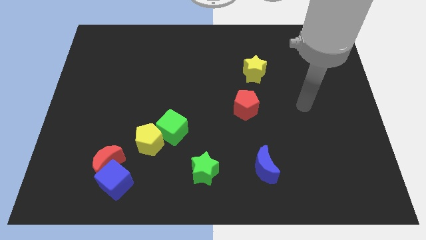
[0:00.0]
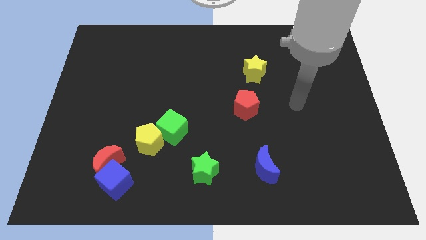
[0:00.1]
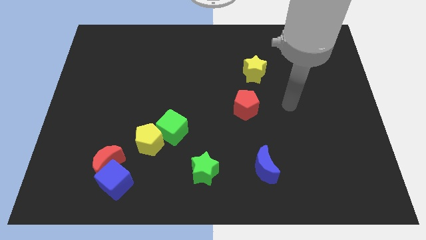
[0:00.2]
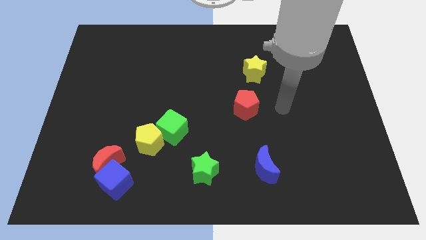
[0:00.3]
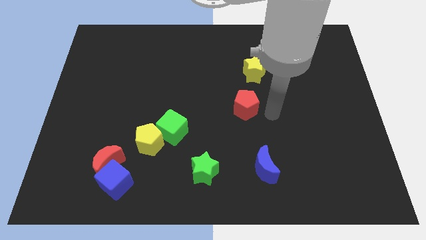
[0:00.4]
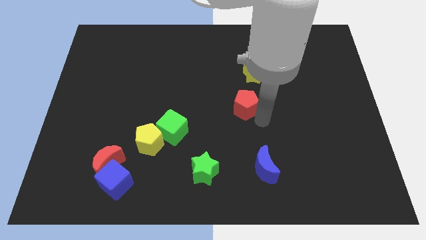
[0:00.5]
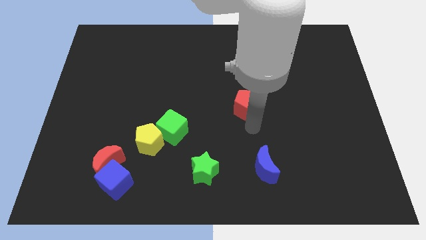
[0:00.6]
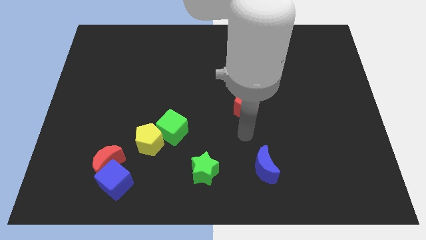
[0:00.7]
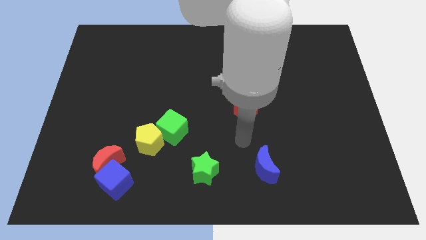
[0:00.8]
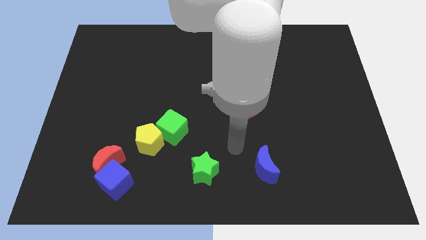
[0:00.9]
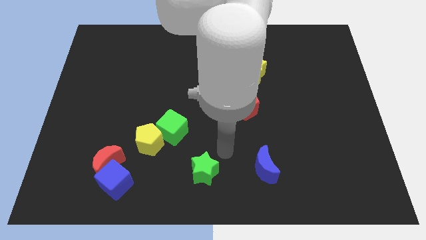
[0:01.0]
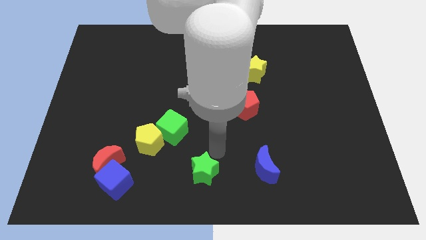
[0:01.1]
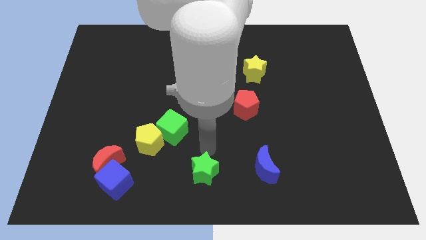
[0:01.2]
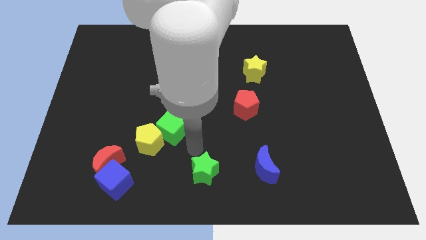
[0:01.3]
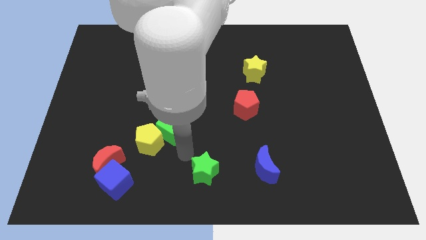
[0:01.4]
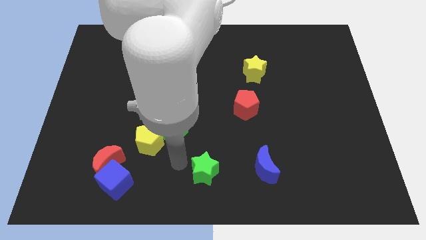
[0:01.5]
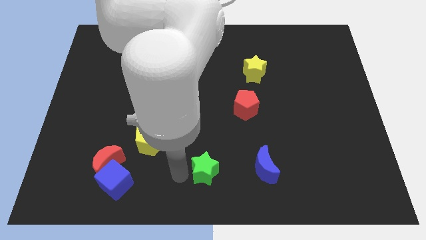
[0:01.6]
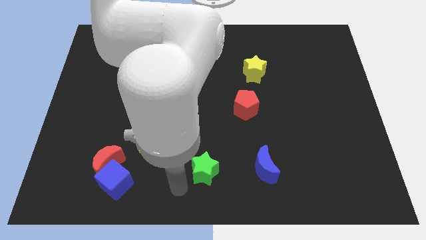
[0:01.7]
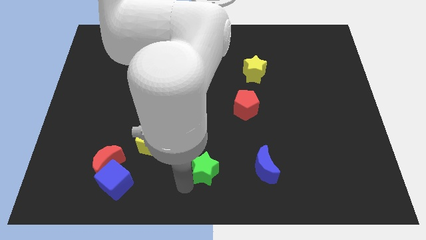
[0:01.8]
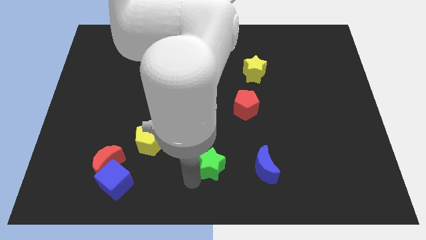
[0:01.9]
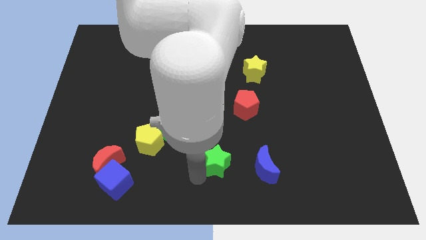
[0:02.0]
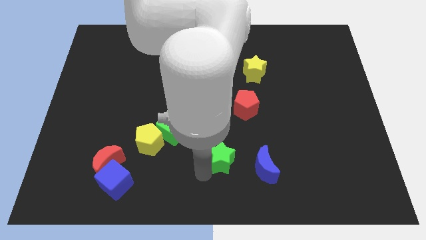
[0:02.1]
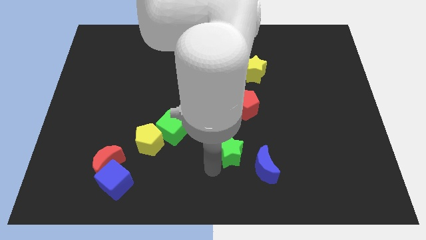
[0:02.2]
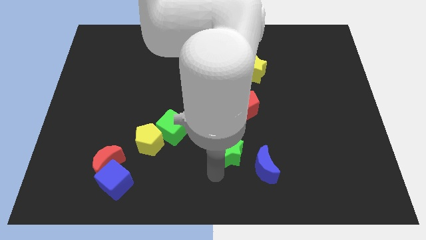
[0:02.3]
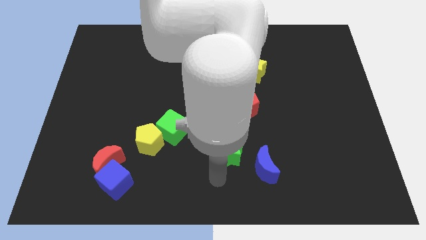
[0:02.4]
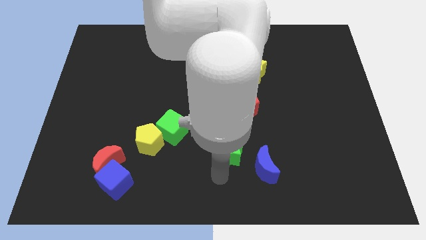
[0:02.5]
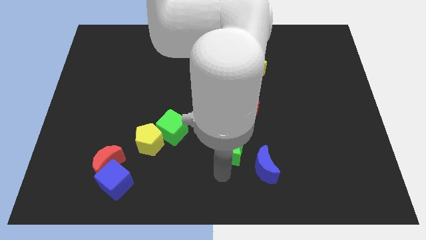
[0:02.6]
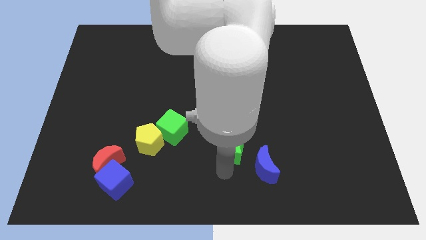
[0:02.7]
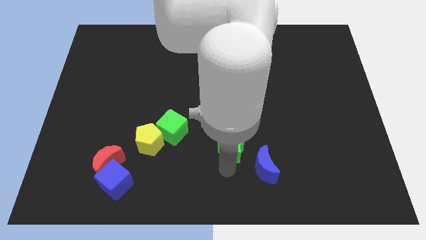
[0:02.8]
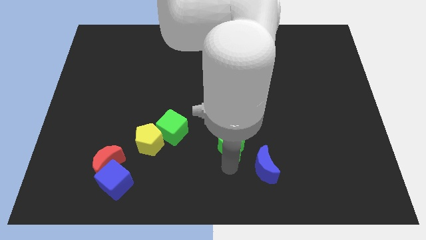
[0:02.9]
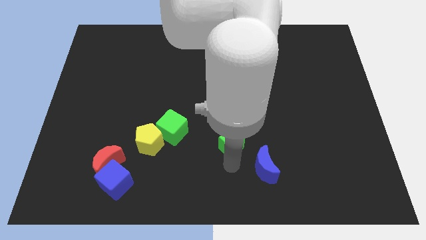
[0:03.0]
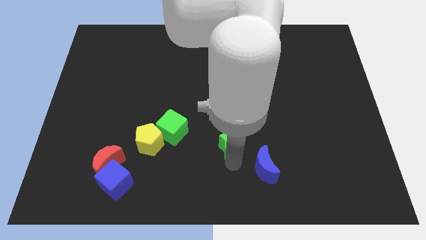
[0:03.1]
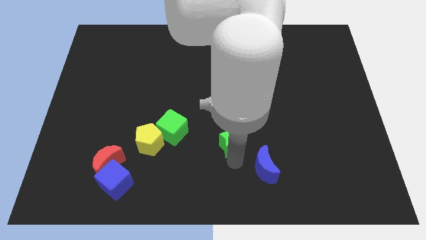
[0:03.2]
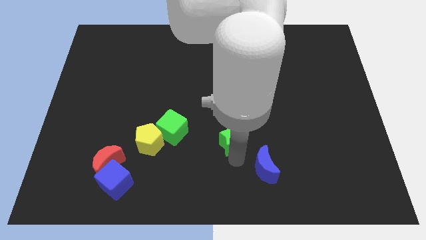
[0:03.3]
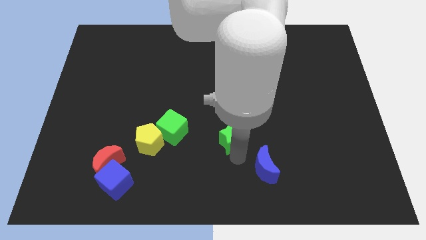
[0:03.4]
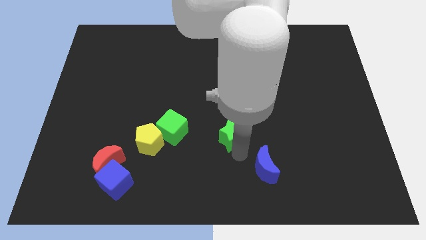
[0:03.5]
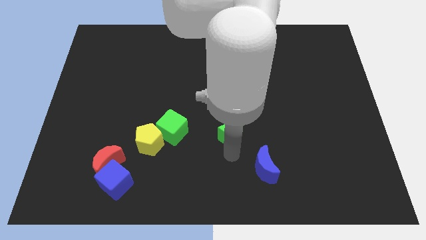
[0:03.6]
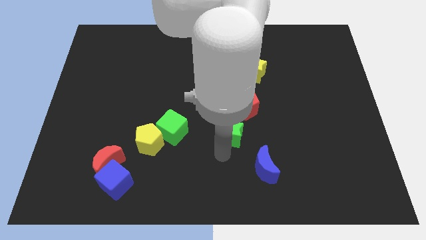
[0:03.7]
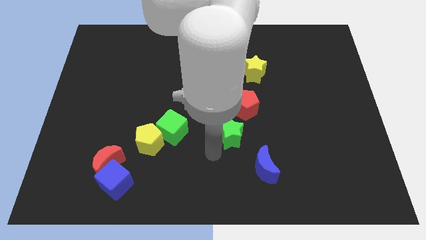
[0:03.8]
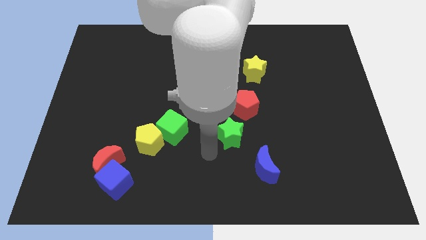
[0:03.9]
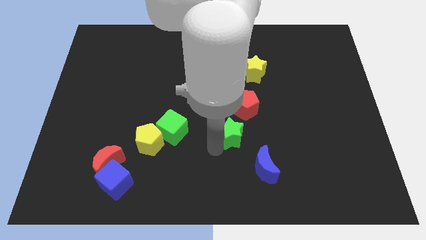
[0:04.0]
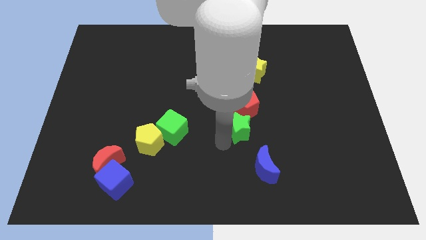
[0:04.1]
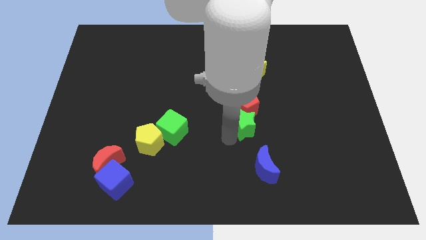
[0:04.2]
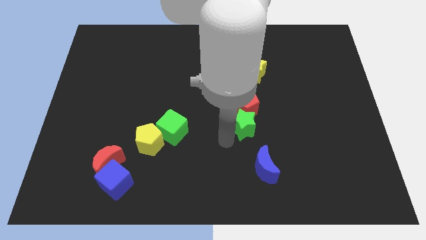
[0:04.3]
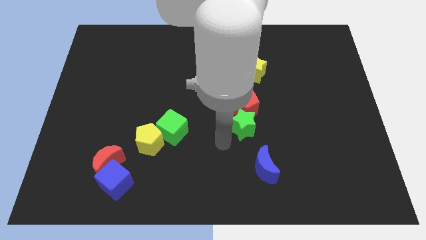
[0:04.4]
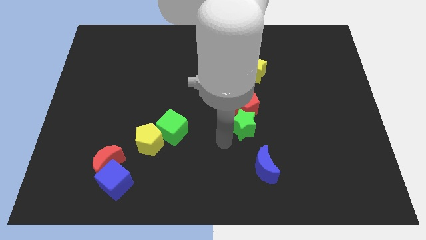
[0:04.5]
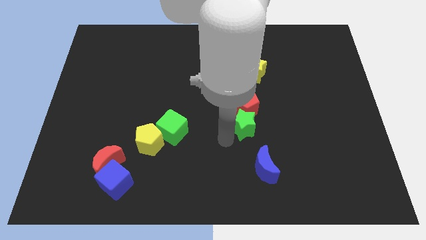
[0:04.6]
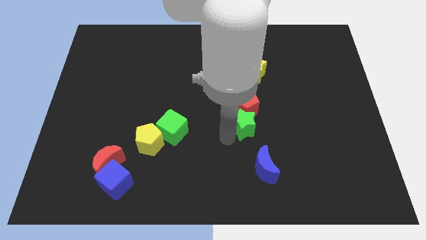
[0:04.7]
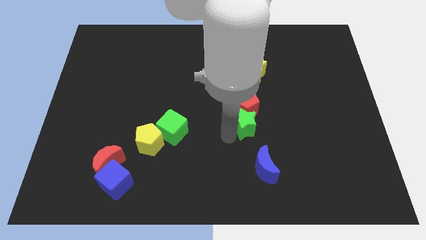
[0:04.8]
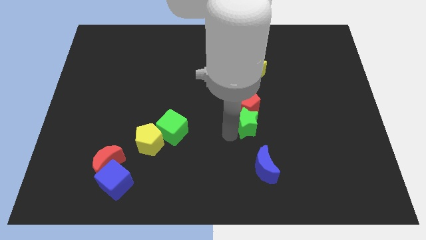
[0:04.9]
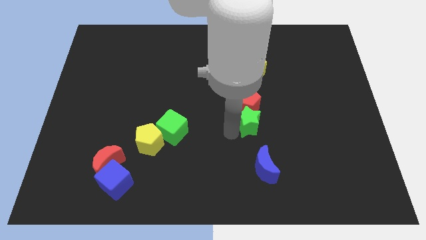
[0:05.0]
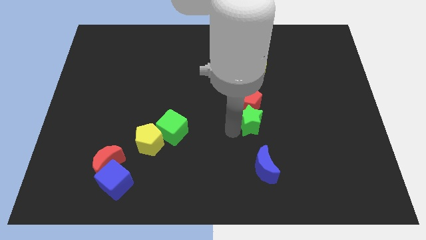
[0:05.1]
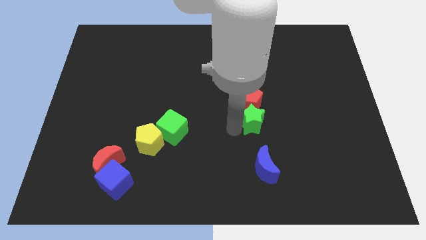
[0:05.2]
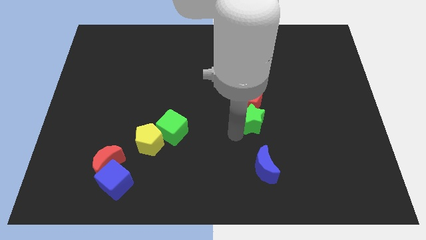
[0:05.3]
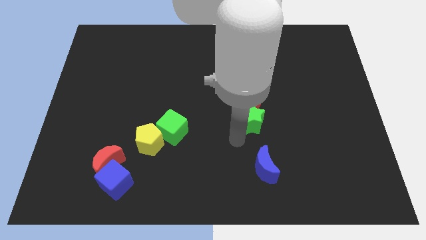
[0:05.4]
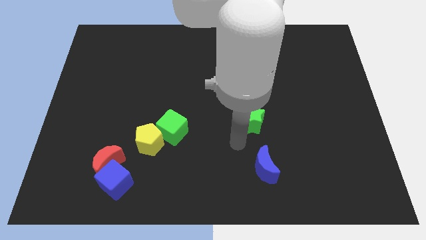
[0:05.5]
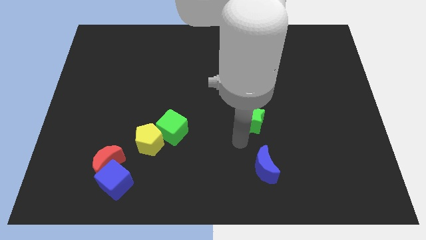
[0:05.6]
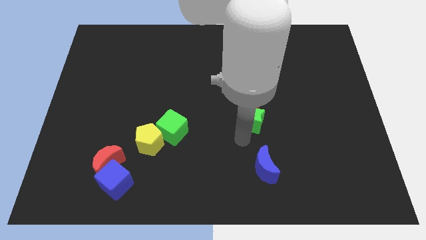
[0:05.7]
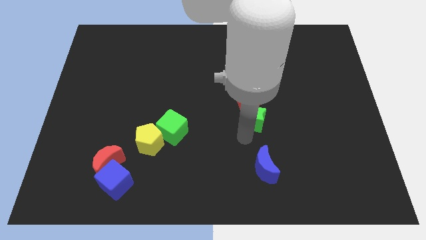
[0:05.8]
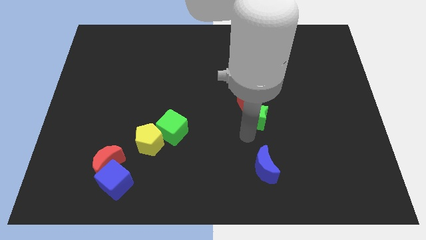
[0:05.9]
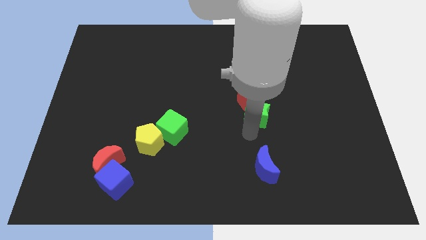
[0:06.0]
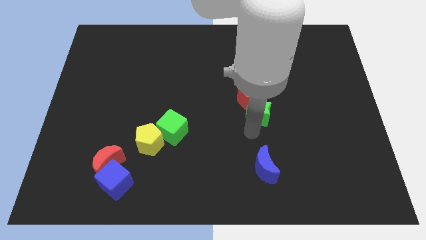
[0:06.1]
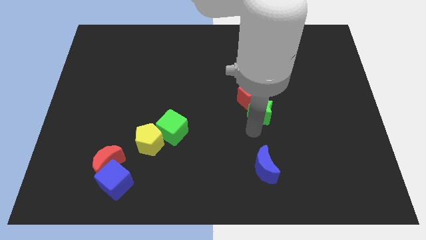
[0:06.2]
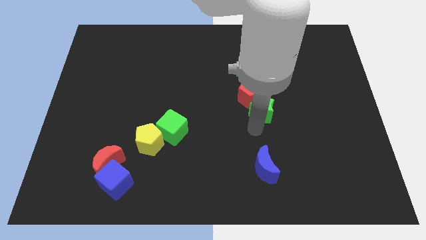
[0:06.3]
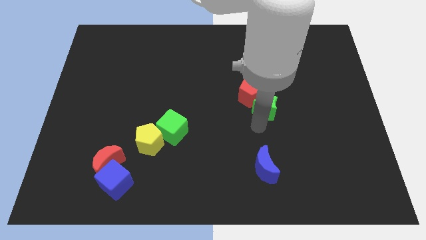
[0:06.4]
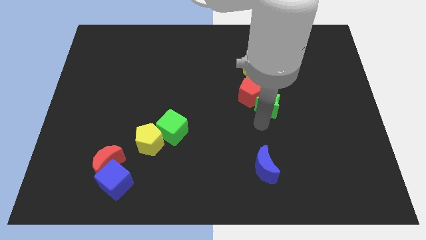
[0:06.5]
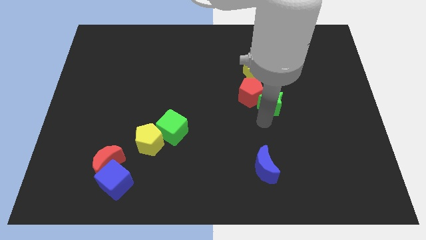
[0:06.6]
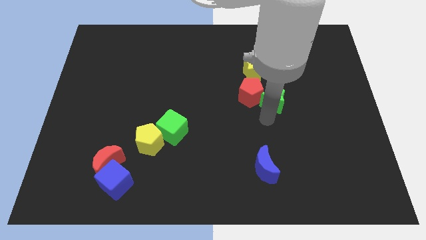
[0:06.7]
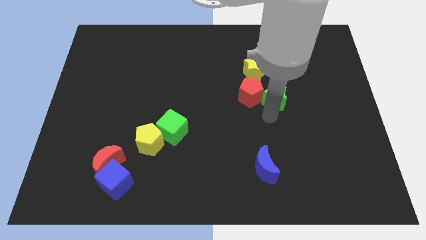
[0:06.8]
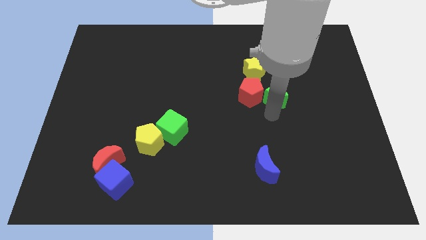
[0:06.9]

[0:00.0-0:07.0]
push the green star to the top right of the red pentagon

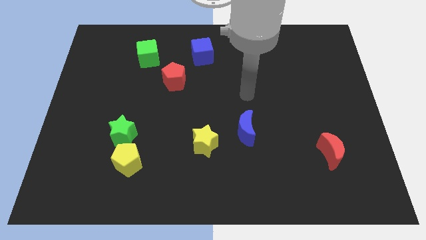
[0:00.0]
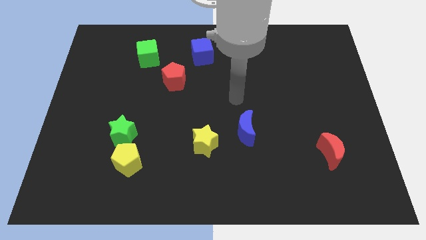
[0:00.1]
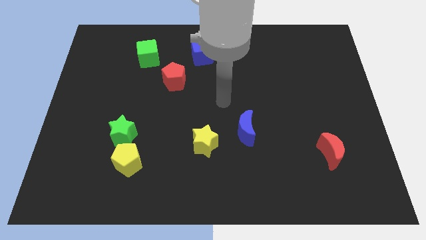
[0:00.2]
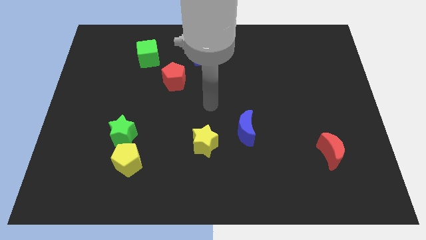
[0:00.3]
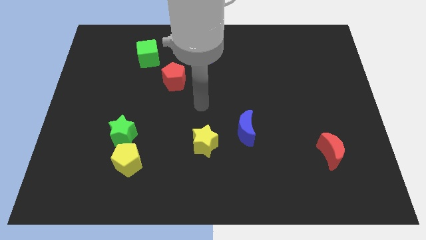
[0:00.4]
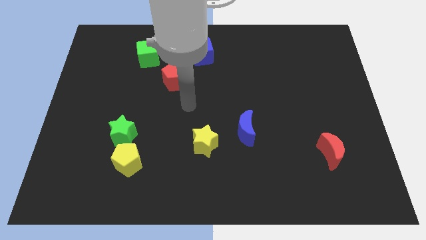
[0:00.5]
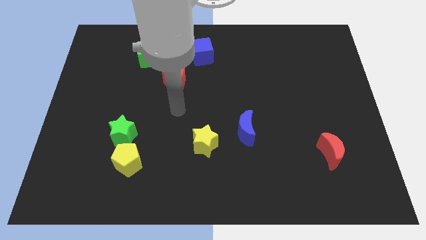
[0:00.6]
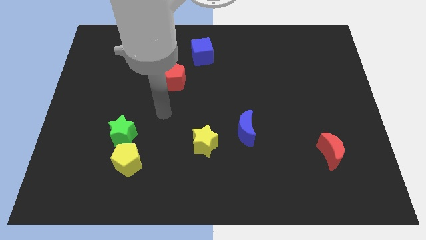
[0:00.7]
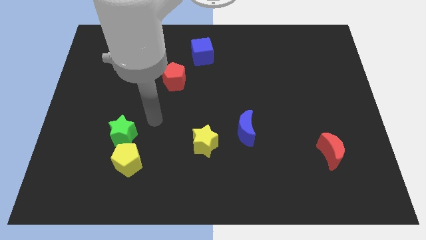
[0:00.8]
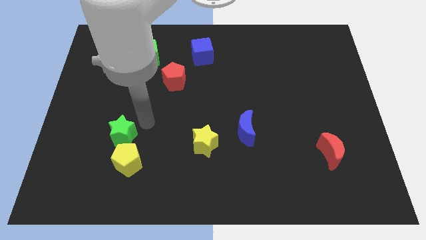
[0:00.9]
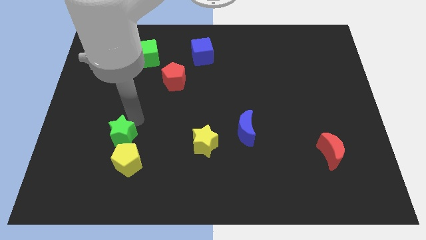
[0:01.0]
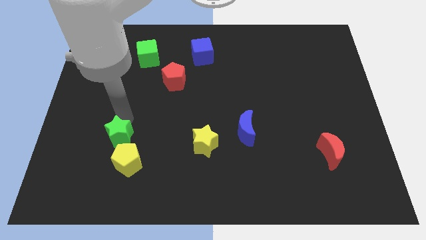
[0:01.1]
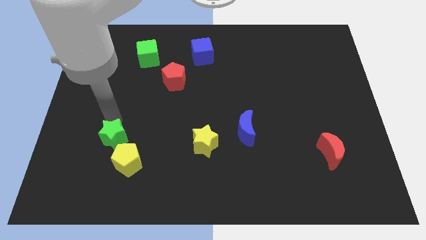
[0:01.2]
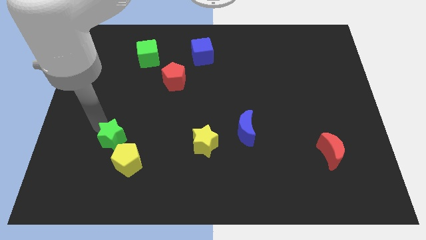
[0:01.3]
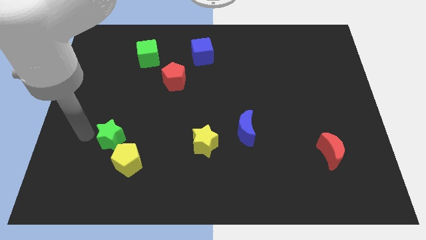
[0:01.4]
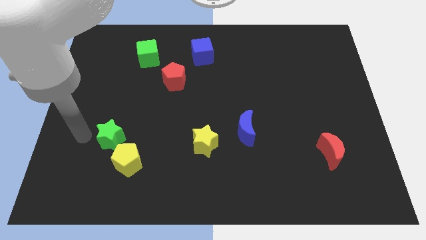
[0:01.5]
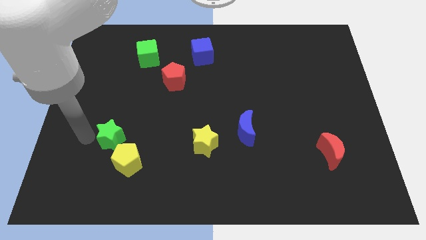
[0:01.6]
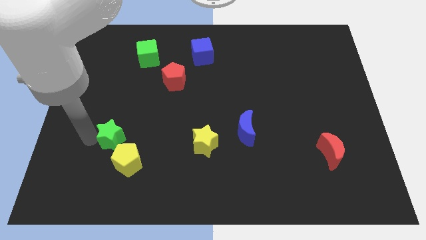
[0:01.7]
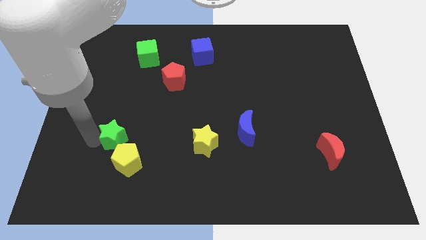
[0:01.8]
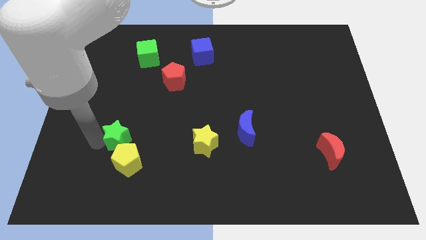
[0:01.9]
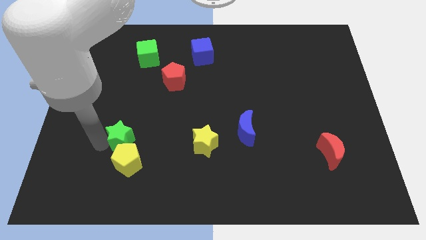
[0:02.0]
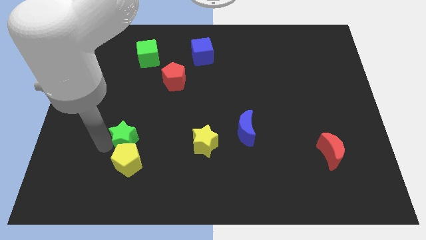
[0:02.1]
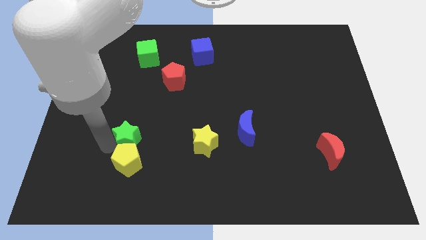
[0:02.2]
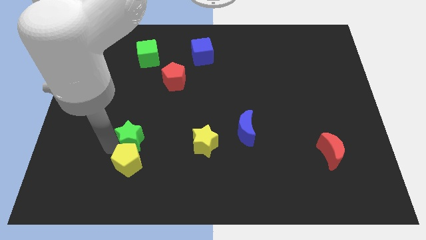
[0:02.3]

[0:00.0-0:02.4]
put the green star to the left of the yellow star
